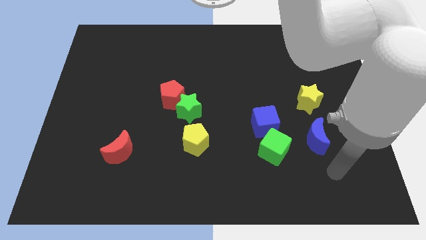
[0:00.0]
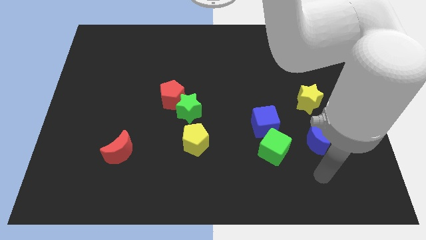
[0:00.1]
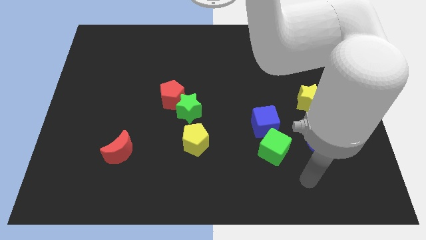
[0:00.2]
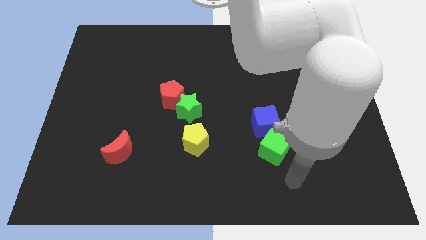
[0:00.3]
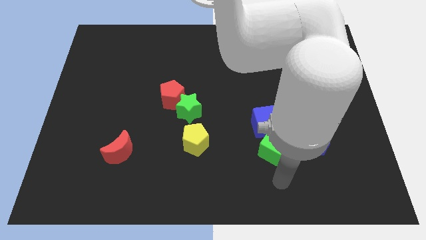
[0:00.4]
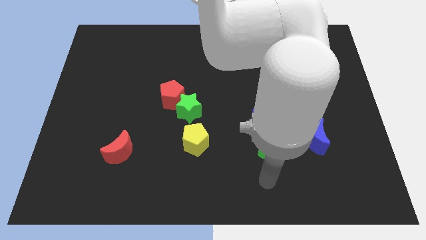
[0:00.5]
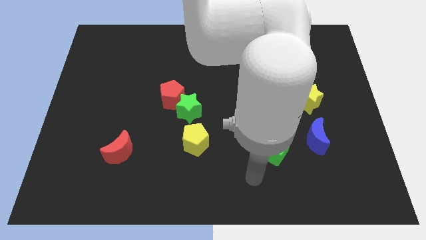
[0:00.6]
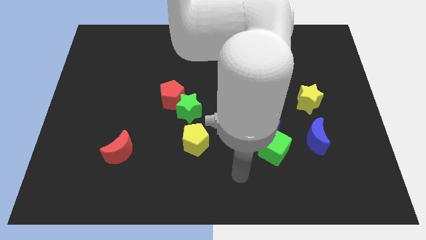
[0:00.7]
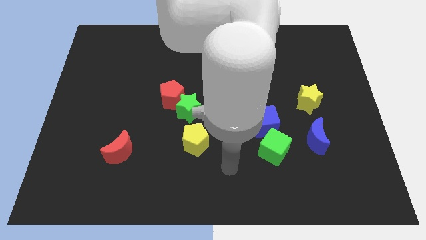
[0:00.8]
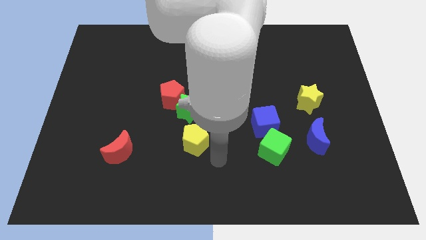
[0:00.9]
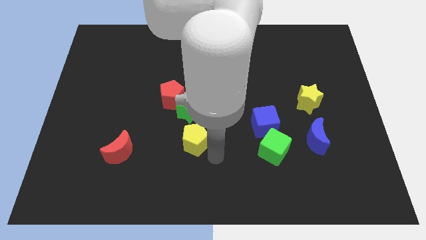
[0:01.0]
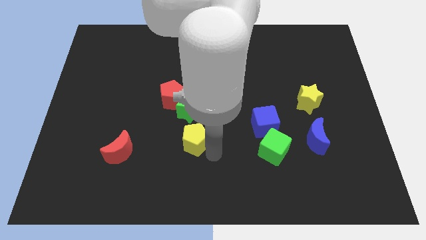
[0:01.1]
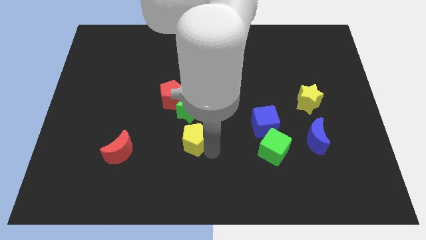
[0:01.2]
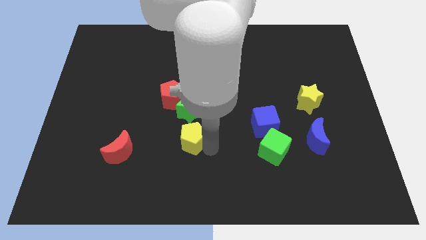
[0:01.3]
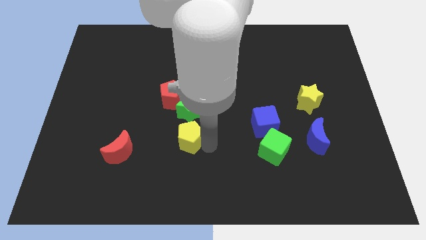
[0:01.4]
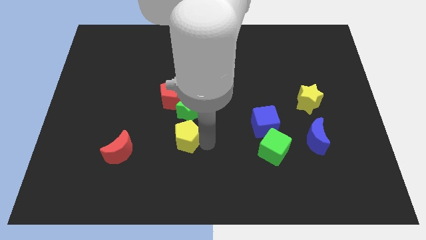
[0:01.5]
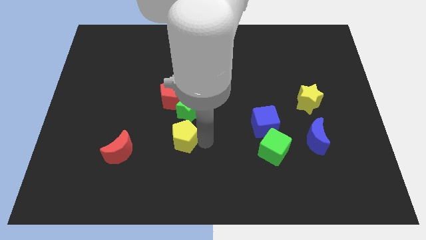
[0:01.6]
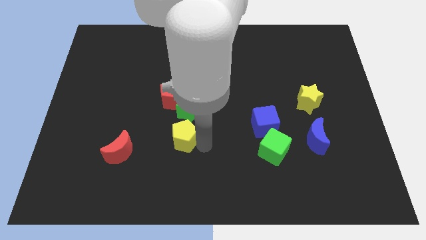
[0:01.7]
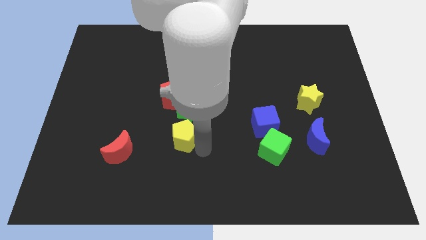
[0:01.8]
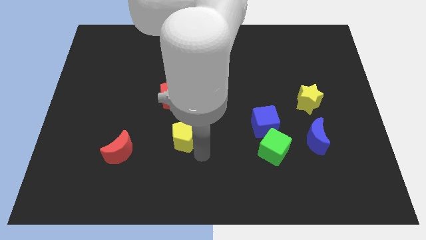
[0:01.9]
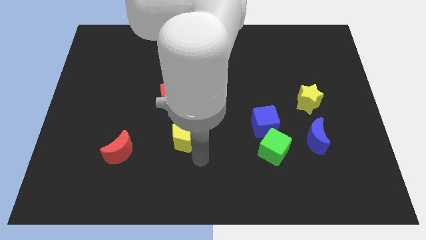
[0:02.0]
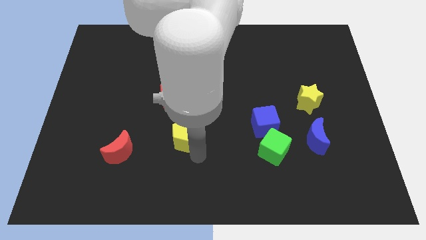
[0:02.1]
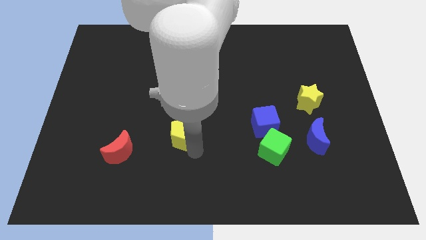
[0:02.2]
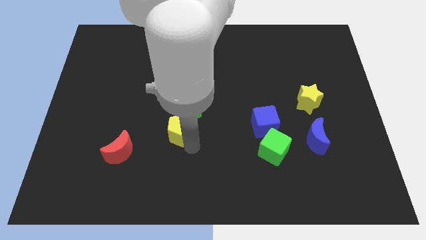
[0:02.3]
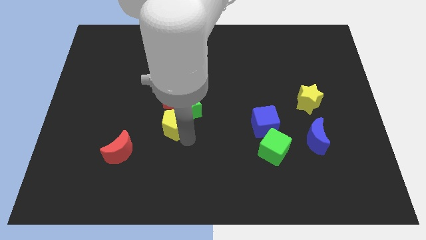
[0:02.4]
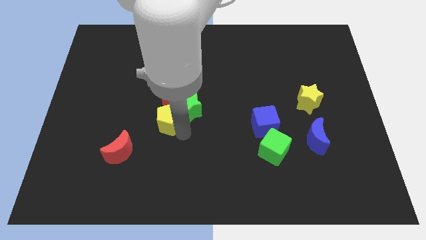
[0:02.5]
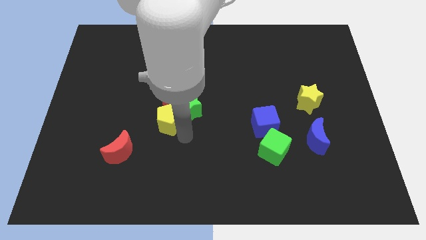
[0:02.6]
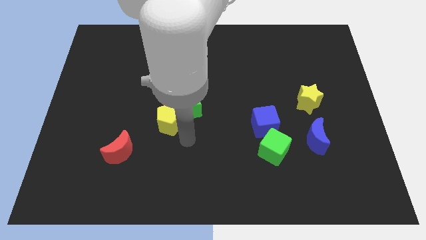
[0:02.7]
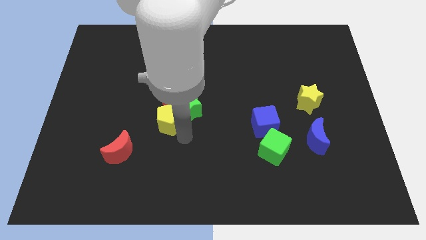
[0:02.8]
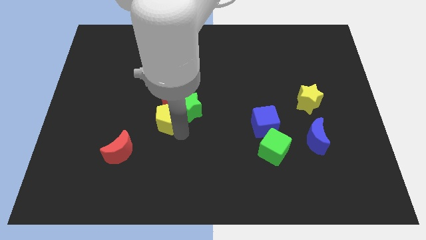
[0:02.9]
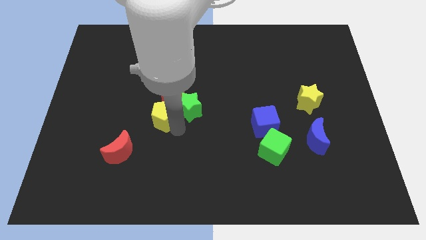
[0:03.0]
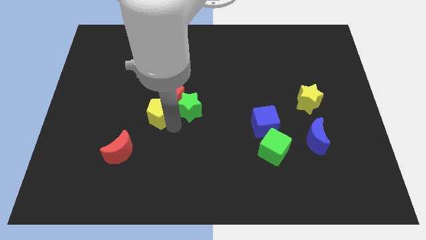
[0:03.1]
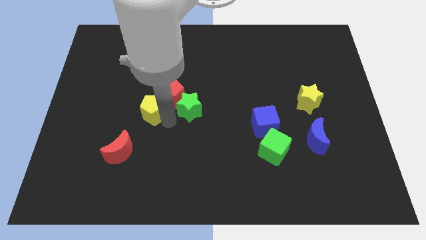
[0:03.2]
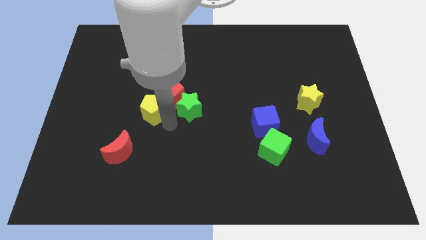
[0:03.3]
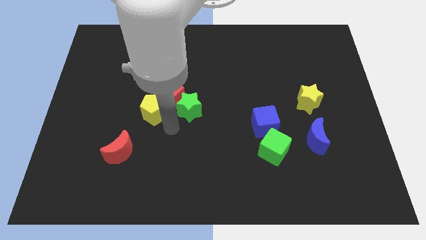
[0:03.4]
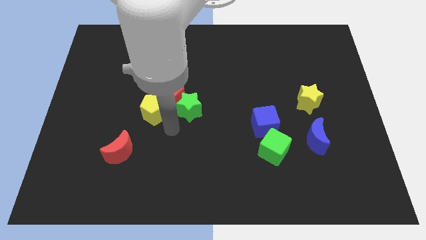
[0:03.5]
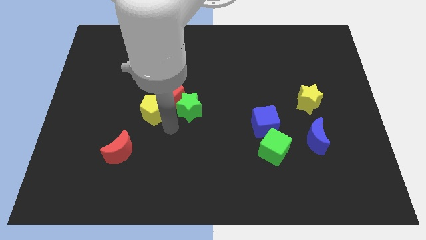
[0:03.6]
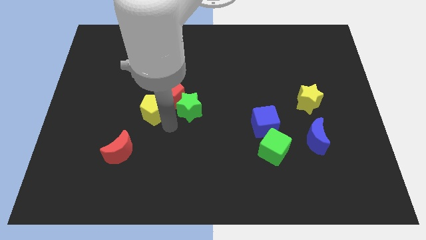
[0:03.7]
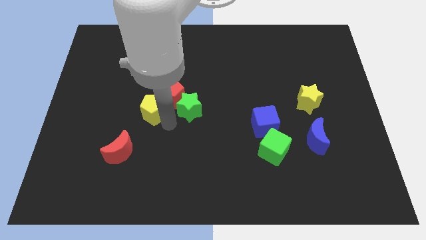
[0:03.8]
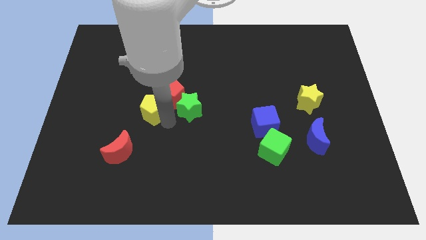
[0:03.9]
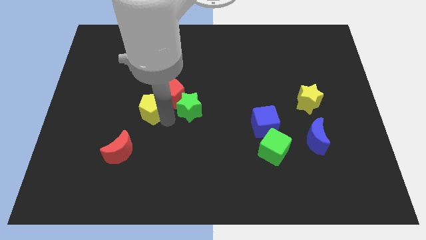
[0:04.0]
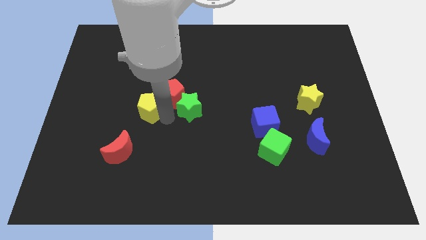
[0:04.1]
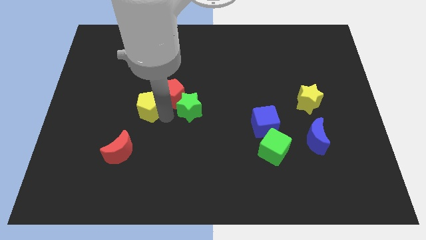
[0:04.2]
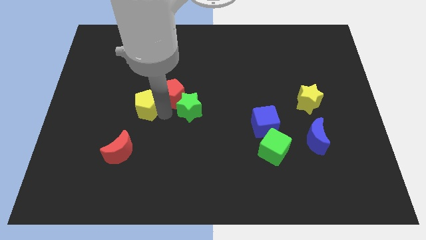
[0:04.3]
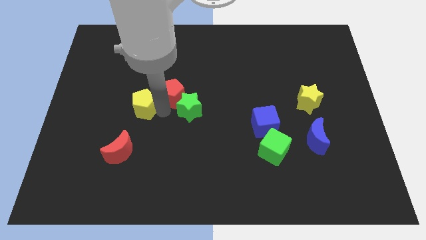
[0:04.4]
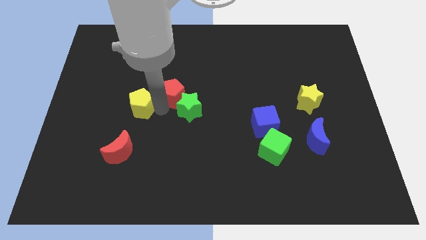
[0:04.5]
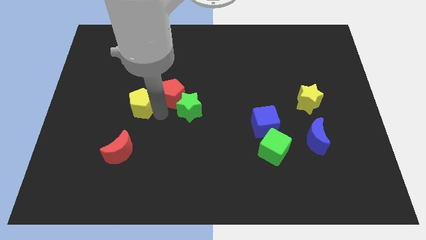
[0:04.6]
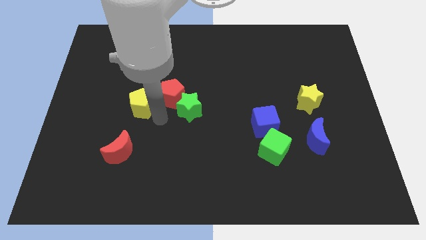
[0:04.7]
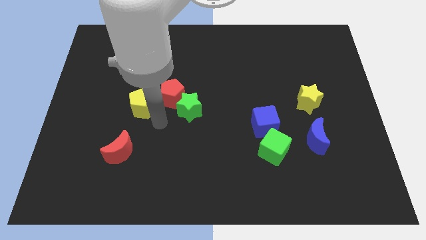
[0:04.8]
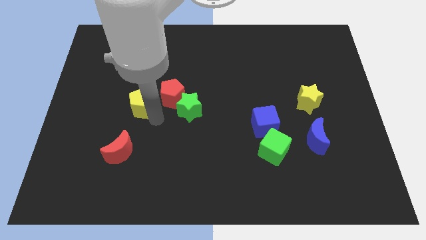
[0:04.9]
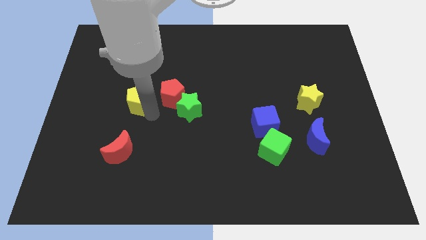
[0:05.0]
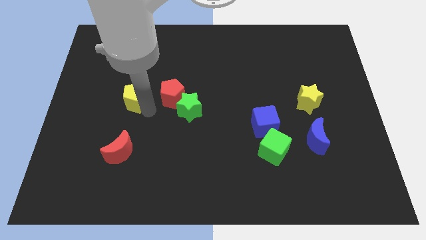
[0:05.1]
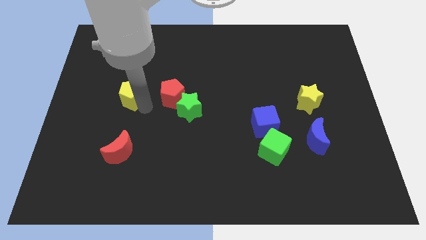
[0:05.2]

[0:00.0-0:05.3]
push the yellow pentagon upwards and to the left diagonally

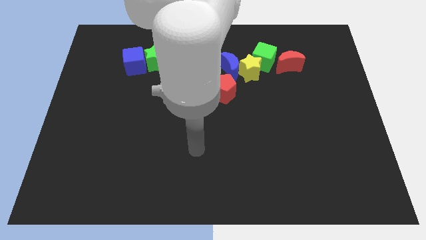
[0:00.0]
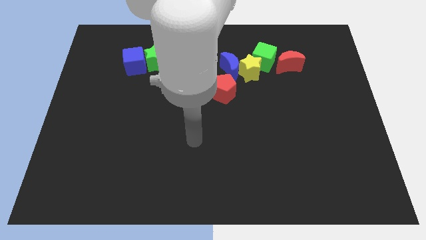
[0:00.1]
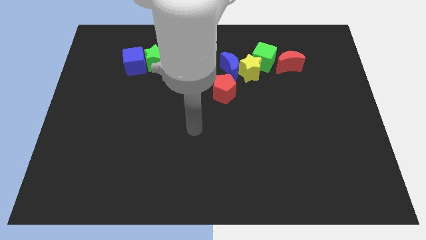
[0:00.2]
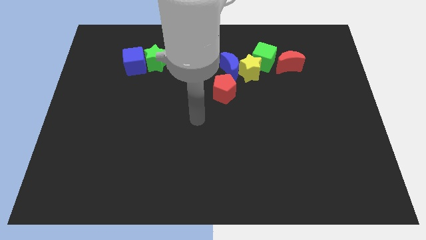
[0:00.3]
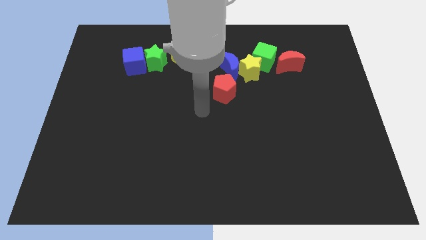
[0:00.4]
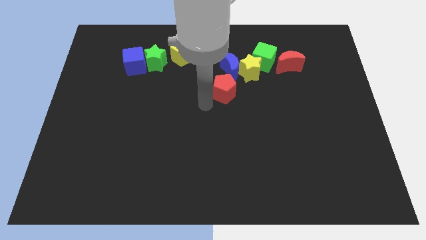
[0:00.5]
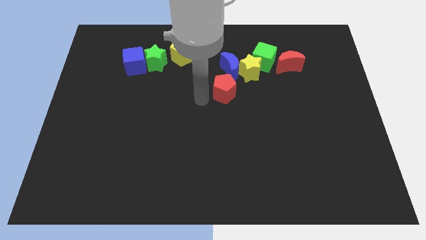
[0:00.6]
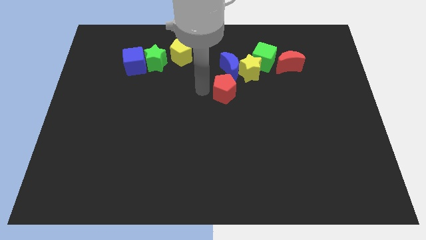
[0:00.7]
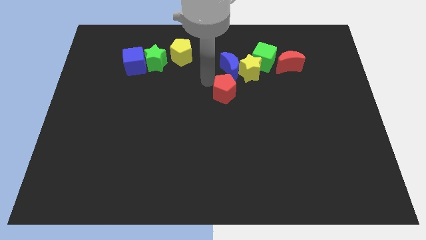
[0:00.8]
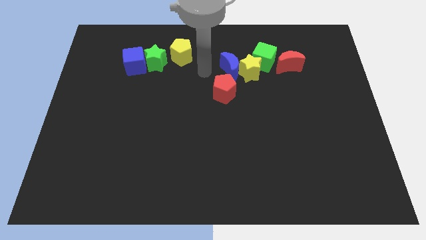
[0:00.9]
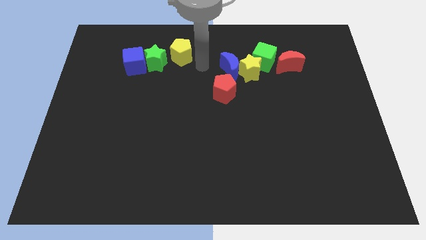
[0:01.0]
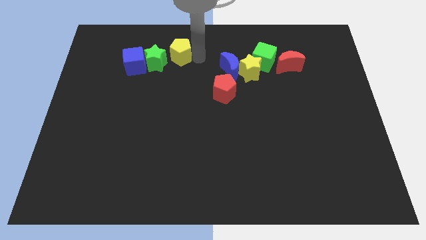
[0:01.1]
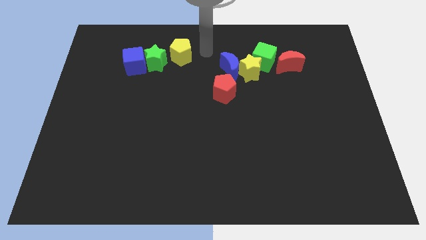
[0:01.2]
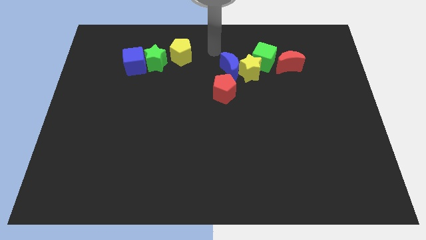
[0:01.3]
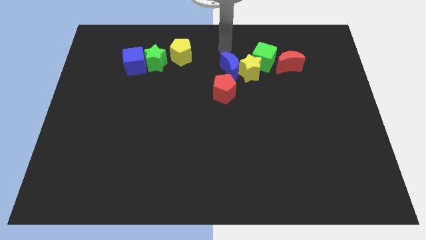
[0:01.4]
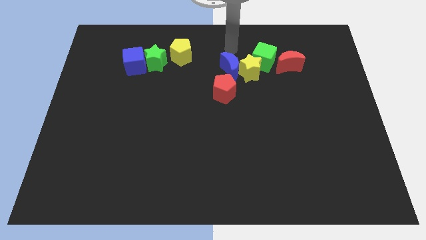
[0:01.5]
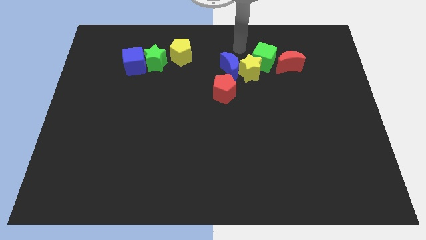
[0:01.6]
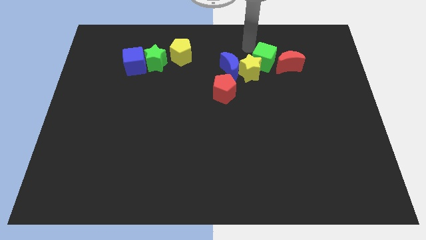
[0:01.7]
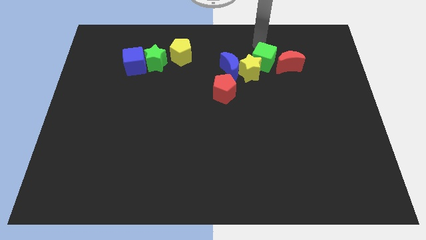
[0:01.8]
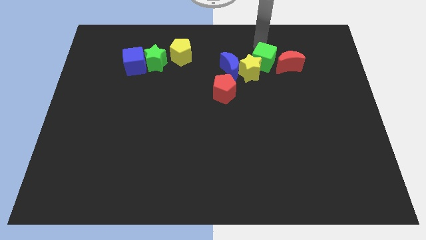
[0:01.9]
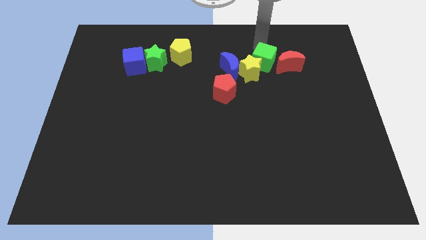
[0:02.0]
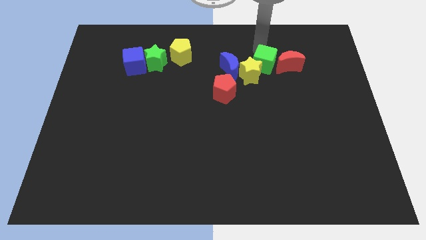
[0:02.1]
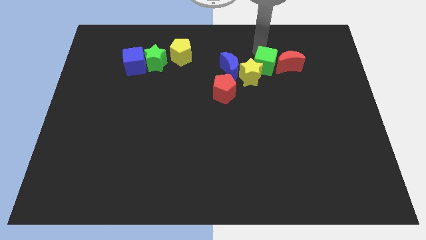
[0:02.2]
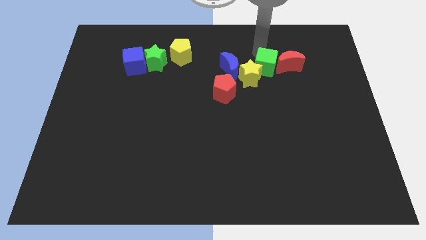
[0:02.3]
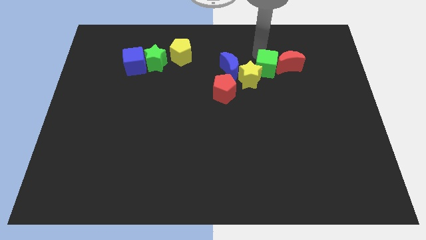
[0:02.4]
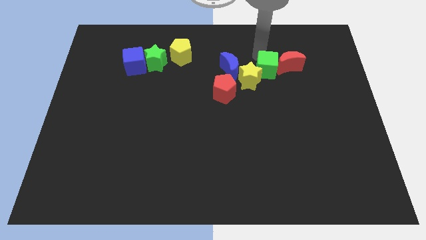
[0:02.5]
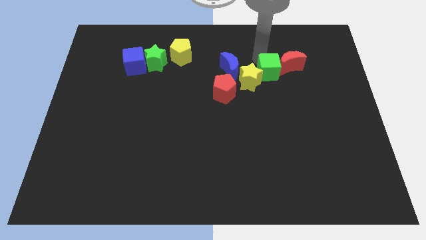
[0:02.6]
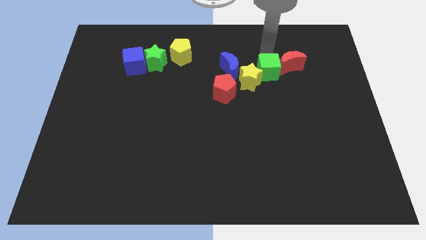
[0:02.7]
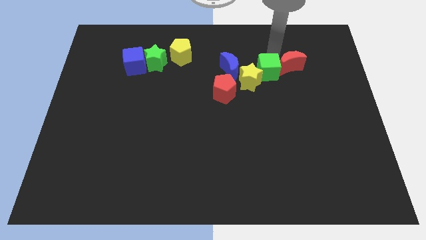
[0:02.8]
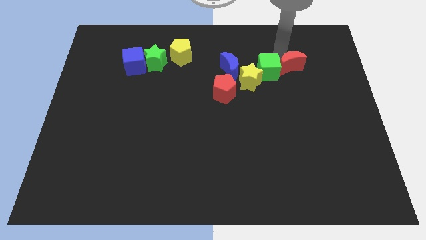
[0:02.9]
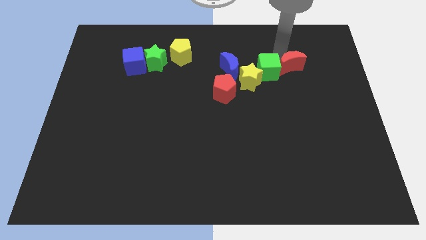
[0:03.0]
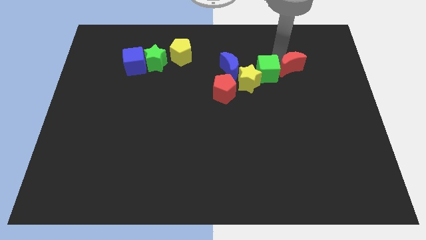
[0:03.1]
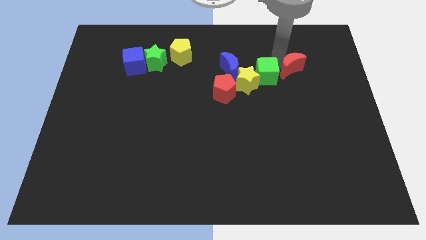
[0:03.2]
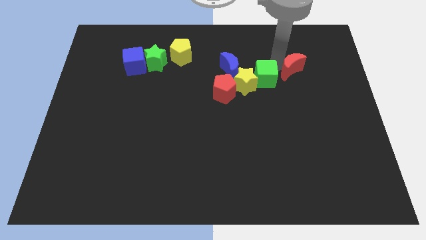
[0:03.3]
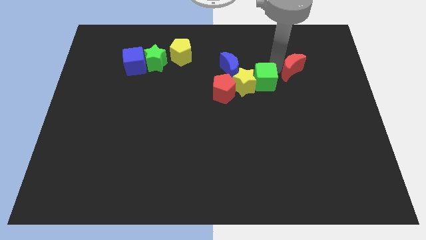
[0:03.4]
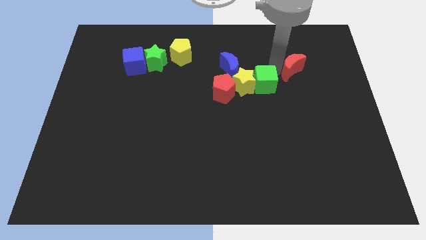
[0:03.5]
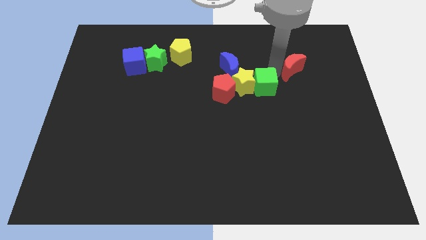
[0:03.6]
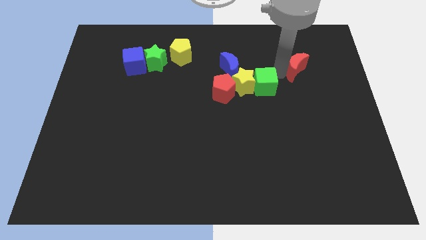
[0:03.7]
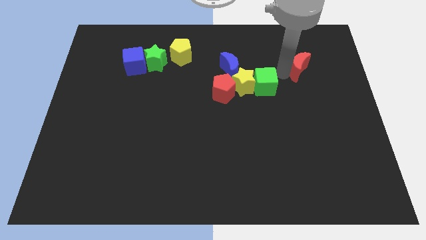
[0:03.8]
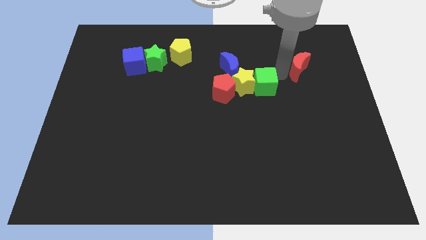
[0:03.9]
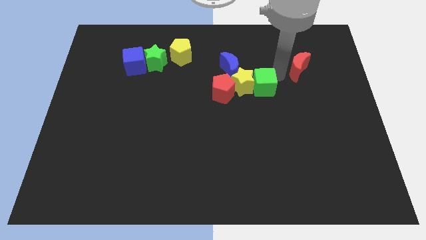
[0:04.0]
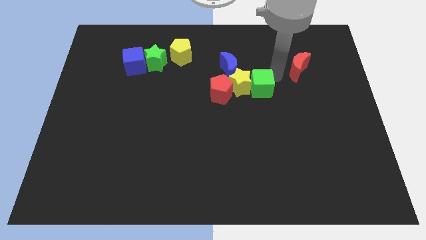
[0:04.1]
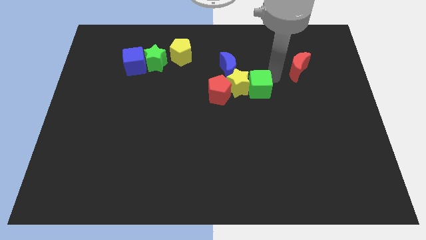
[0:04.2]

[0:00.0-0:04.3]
move the green cube down and then left a bit
